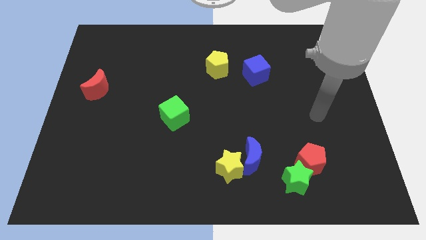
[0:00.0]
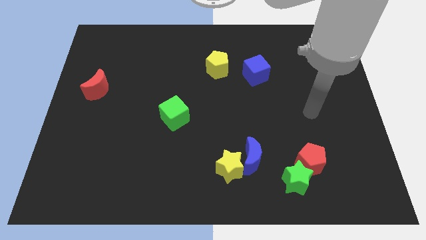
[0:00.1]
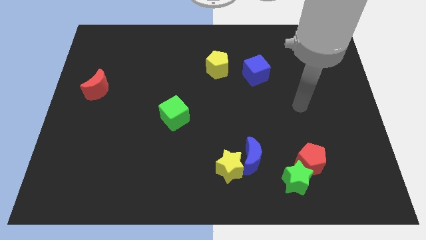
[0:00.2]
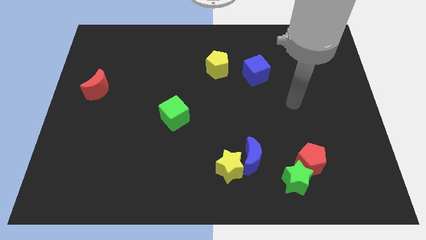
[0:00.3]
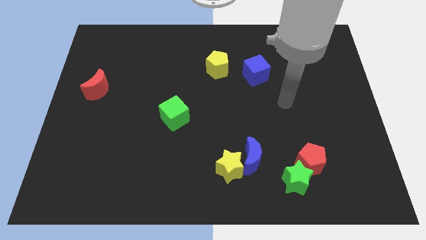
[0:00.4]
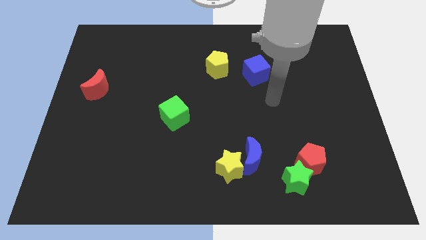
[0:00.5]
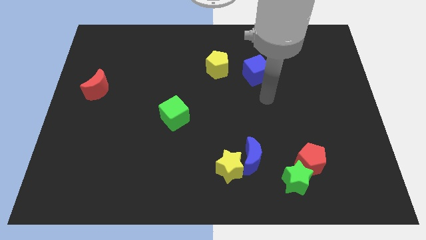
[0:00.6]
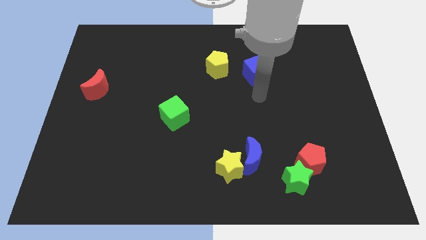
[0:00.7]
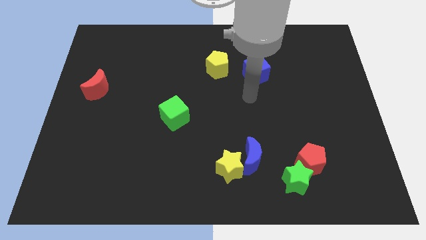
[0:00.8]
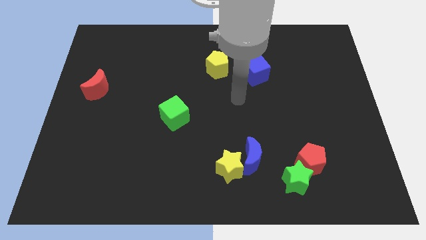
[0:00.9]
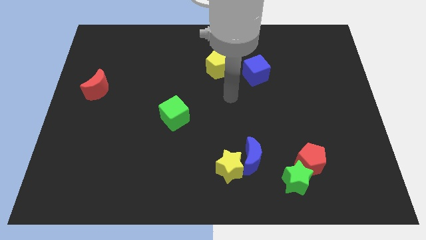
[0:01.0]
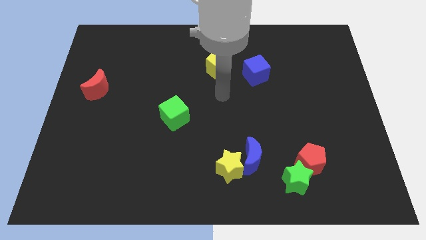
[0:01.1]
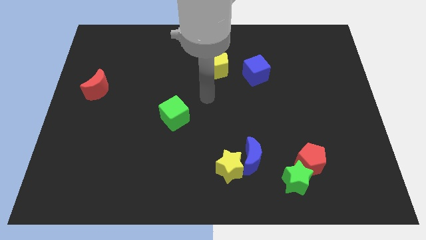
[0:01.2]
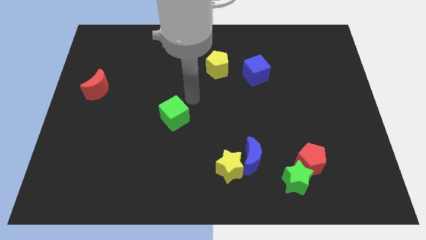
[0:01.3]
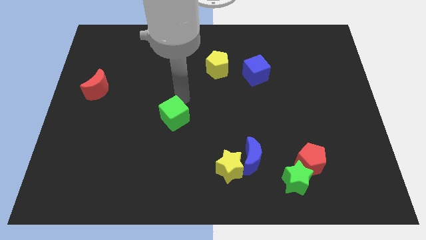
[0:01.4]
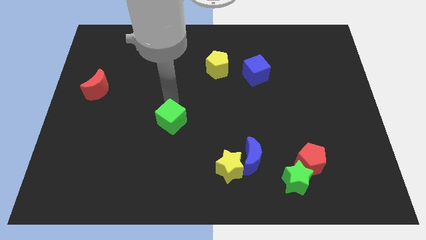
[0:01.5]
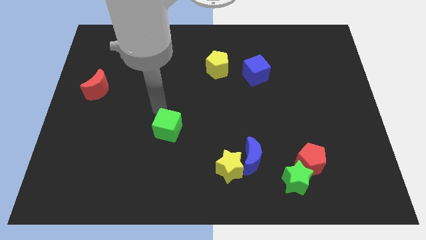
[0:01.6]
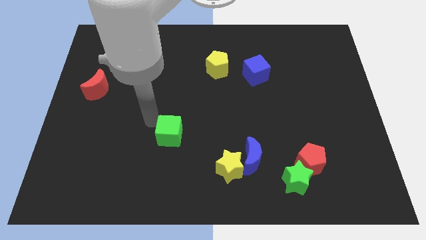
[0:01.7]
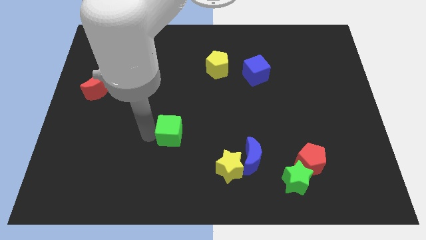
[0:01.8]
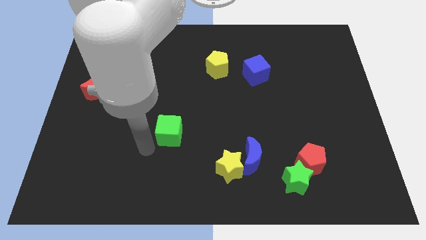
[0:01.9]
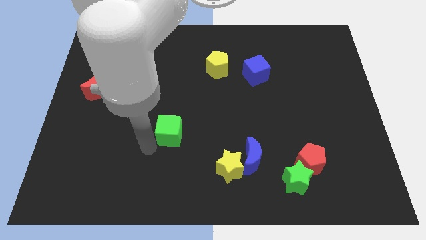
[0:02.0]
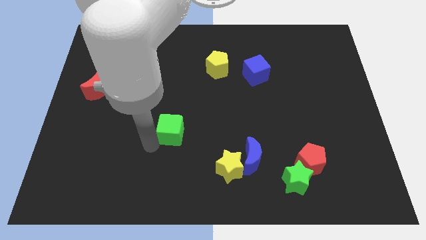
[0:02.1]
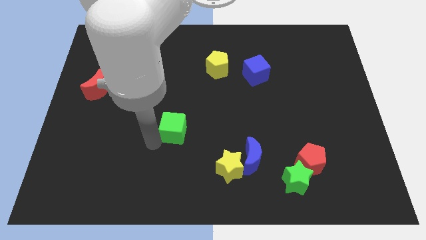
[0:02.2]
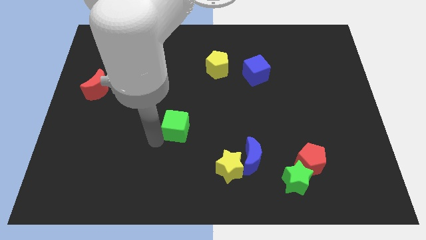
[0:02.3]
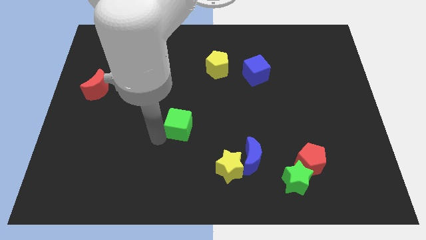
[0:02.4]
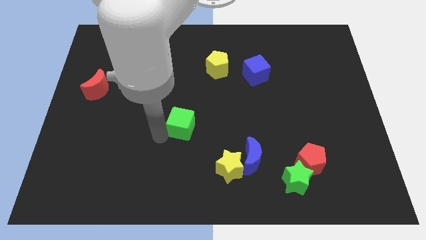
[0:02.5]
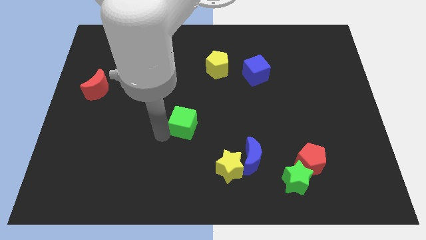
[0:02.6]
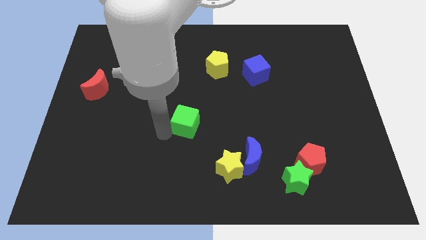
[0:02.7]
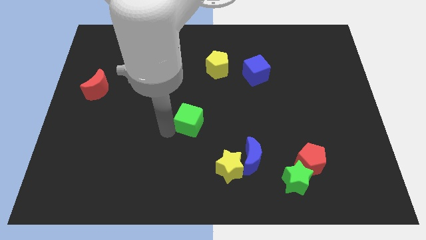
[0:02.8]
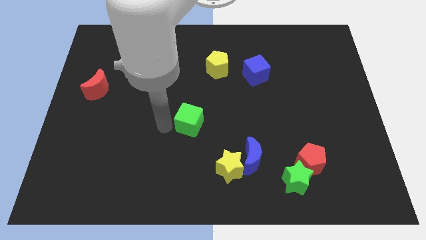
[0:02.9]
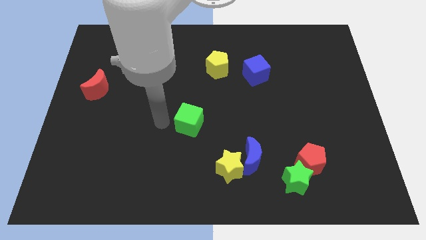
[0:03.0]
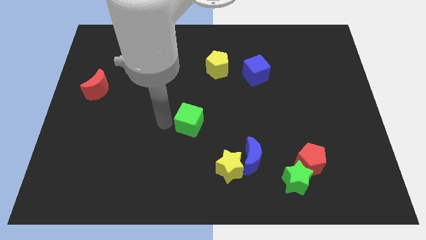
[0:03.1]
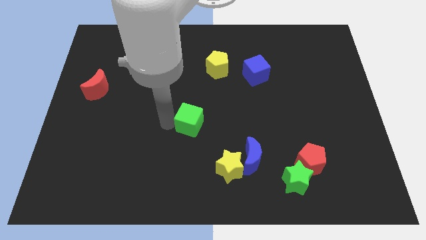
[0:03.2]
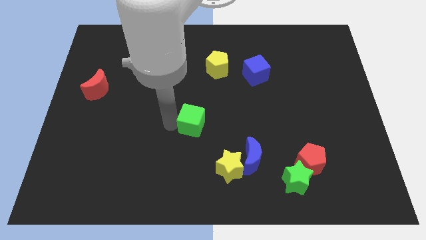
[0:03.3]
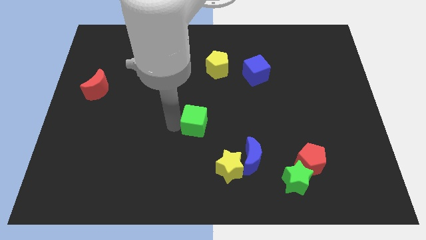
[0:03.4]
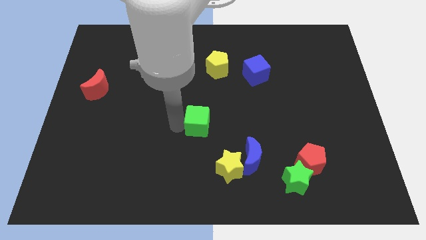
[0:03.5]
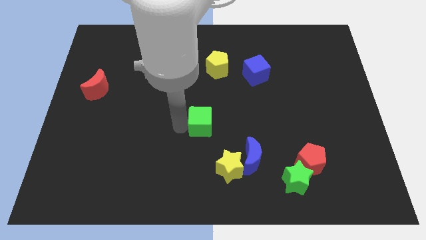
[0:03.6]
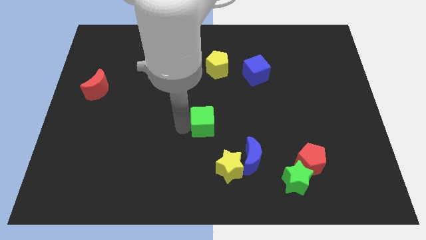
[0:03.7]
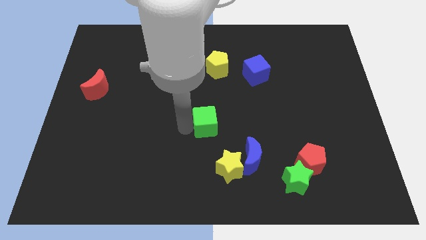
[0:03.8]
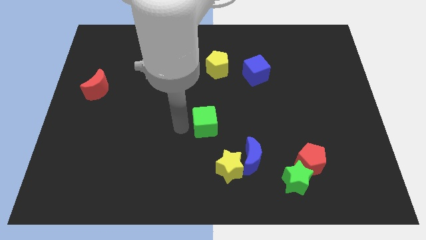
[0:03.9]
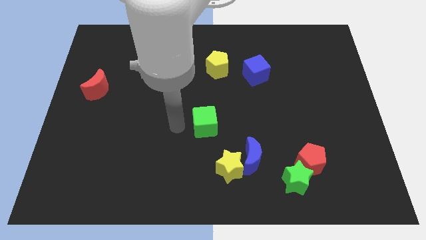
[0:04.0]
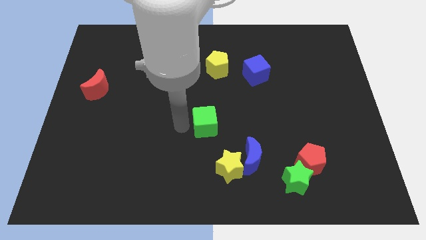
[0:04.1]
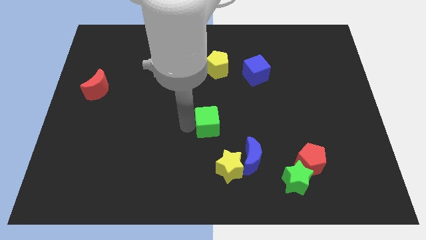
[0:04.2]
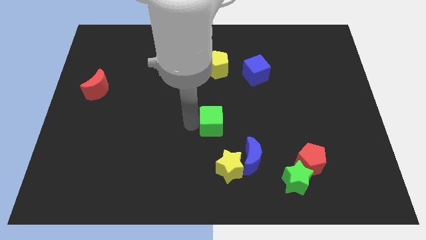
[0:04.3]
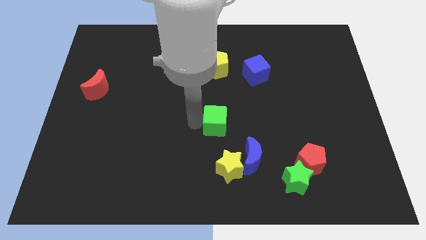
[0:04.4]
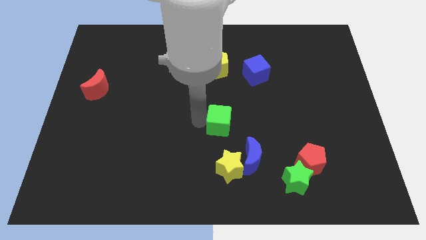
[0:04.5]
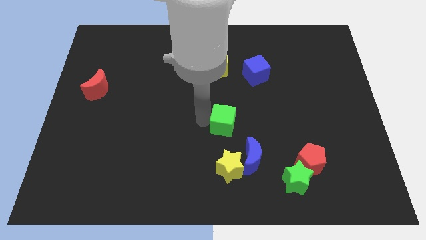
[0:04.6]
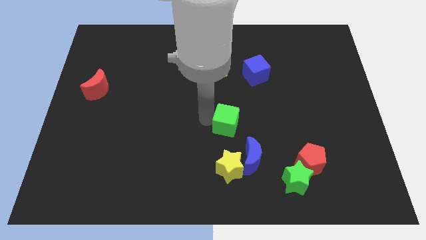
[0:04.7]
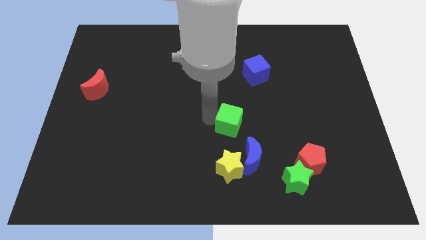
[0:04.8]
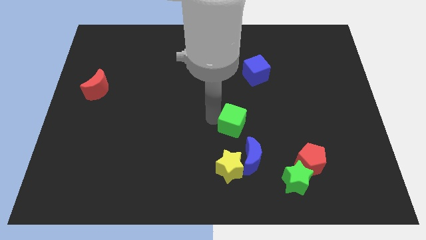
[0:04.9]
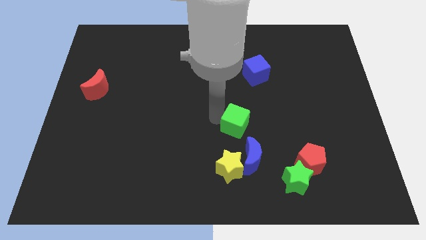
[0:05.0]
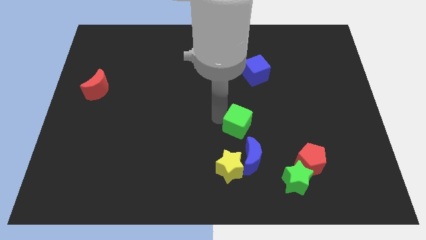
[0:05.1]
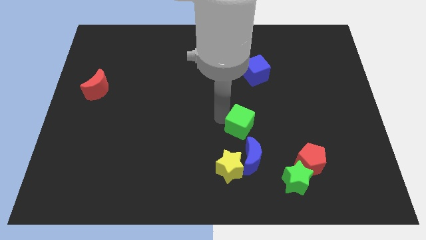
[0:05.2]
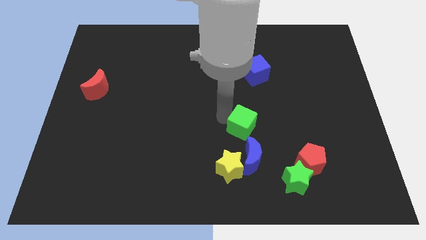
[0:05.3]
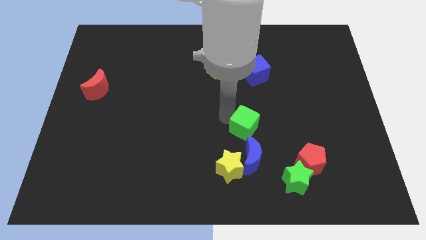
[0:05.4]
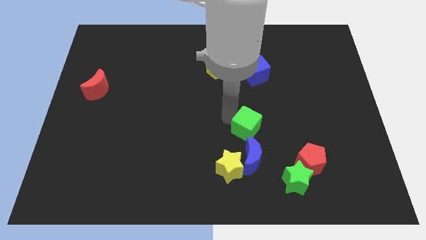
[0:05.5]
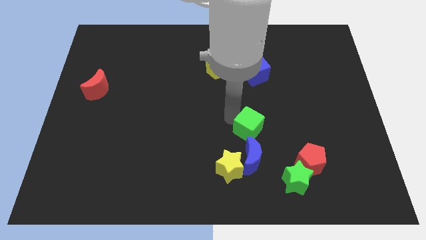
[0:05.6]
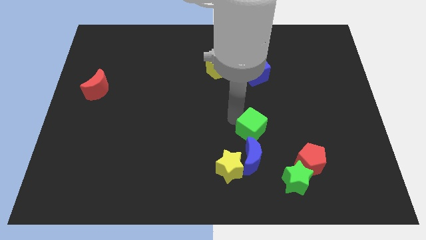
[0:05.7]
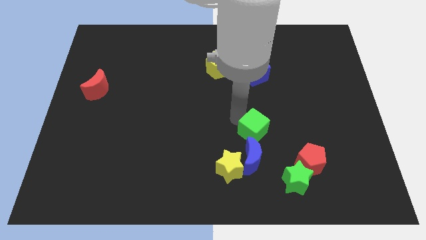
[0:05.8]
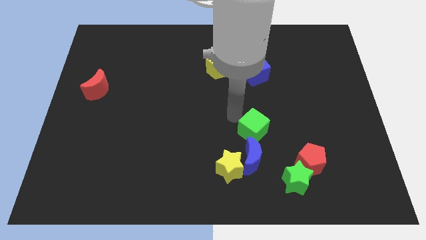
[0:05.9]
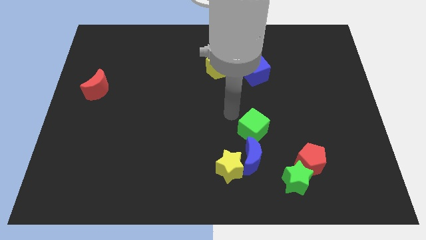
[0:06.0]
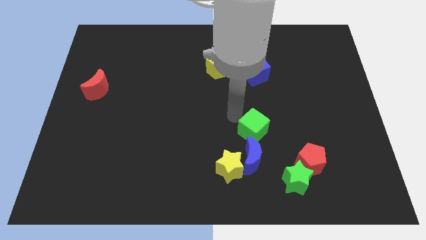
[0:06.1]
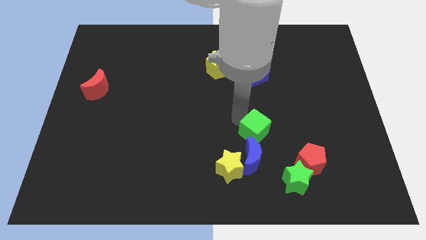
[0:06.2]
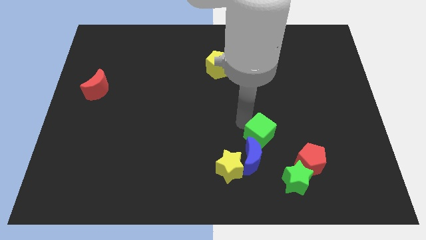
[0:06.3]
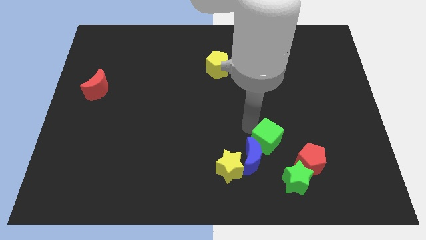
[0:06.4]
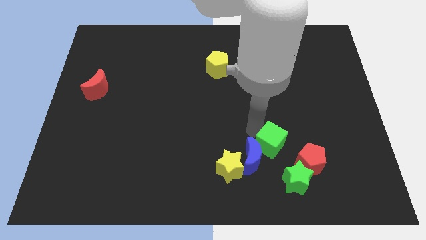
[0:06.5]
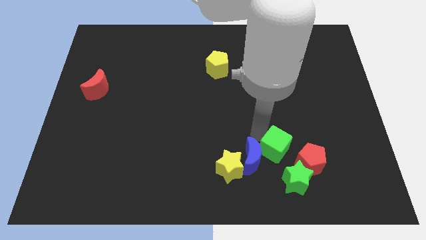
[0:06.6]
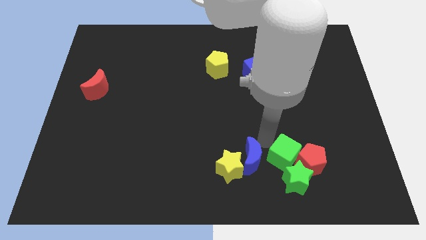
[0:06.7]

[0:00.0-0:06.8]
push the green cube towards the red pentagon
